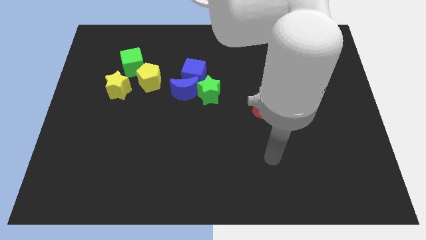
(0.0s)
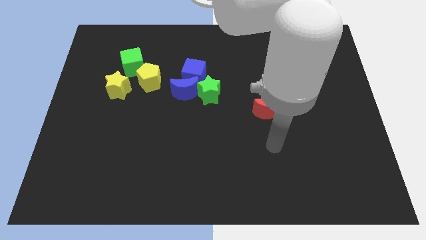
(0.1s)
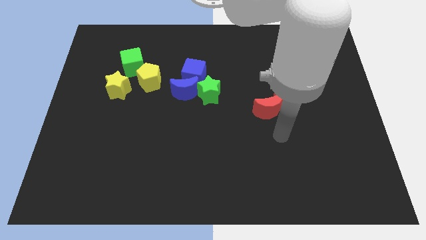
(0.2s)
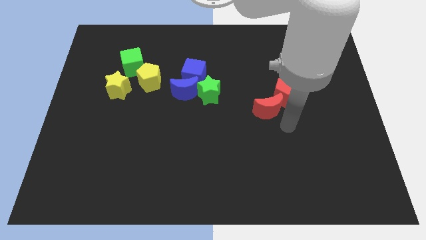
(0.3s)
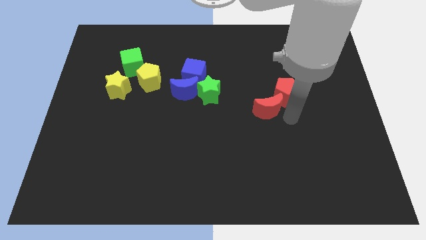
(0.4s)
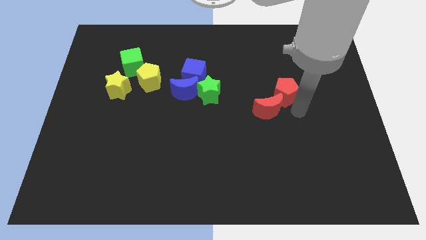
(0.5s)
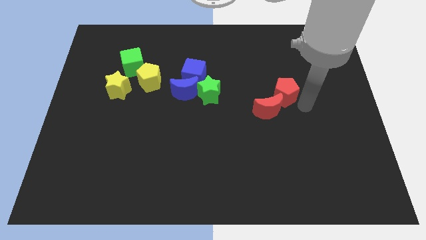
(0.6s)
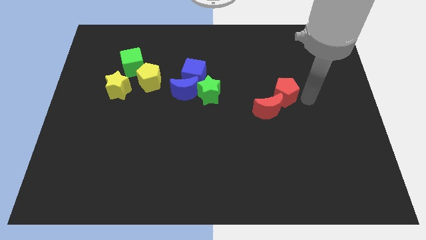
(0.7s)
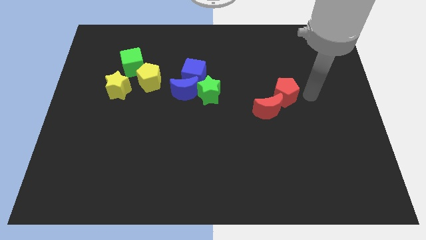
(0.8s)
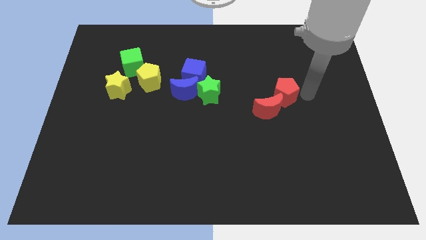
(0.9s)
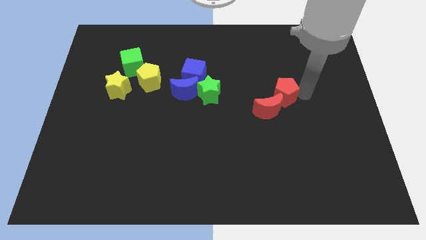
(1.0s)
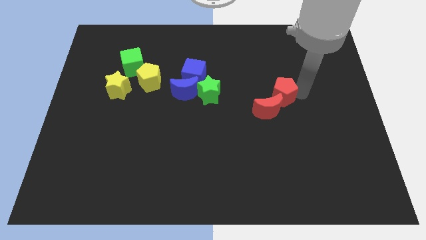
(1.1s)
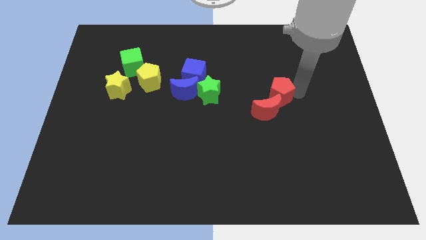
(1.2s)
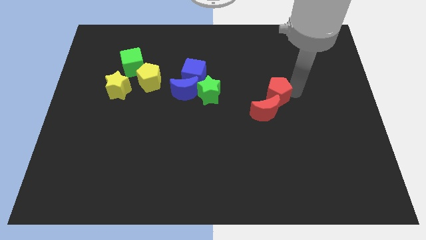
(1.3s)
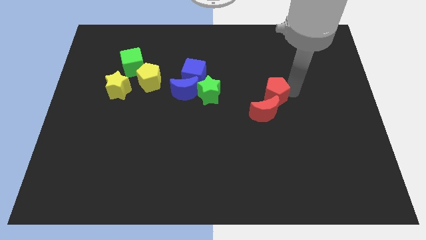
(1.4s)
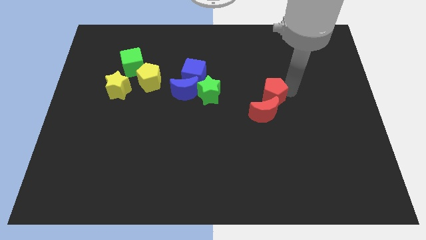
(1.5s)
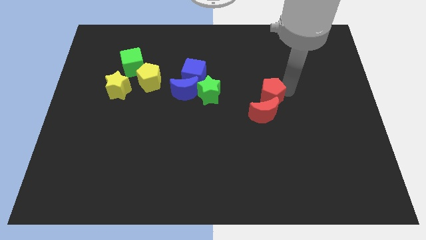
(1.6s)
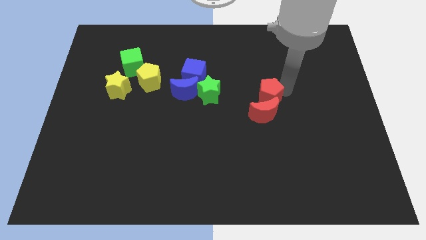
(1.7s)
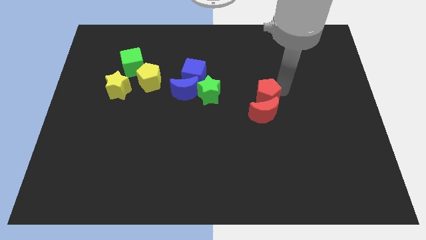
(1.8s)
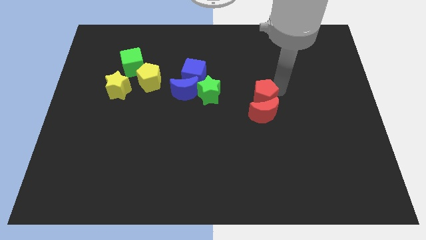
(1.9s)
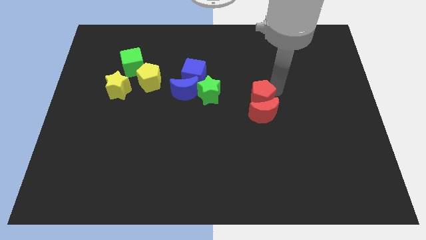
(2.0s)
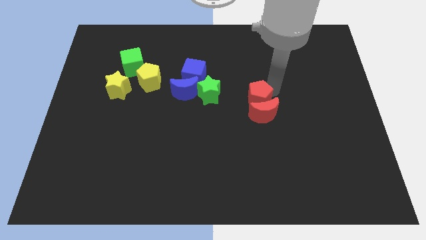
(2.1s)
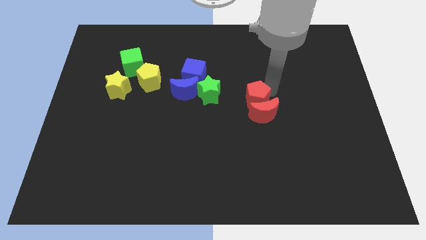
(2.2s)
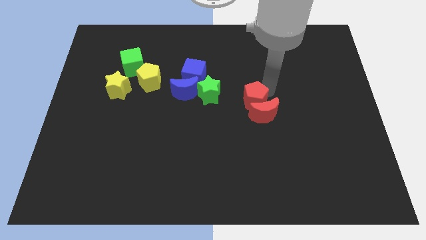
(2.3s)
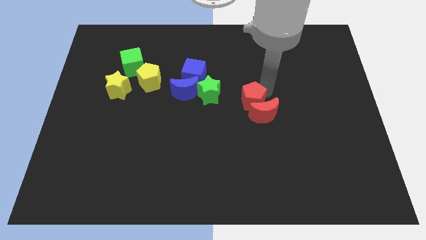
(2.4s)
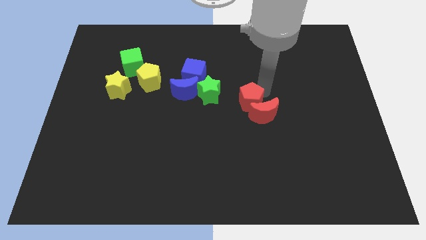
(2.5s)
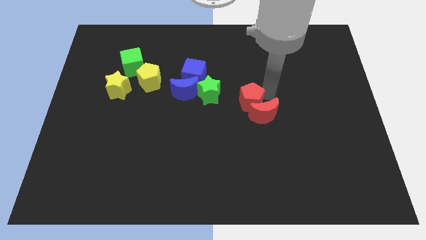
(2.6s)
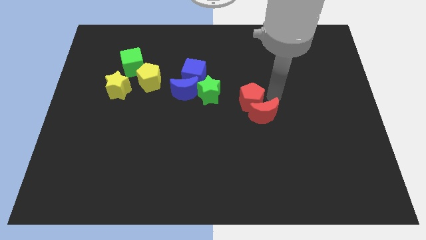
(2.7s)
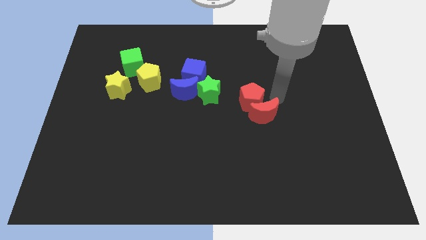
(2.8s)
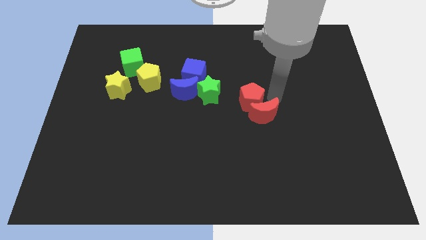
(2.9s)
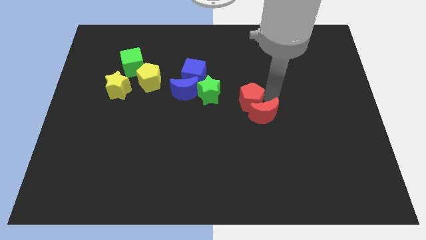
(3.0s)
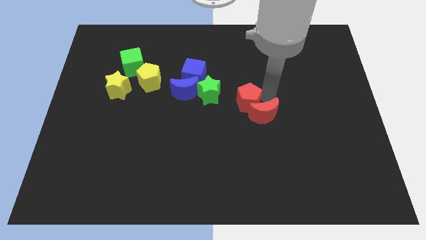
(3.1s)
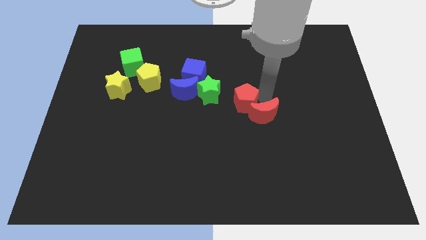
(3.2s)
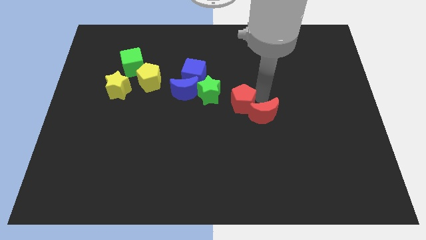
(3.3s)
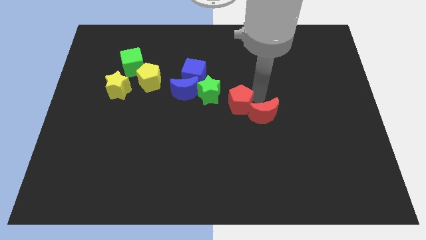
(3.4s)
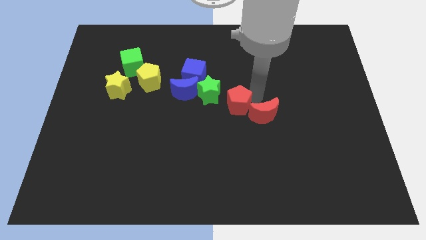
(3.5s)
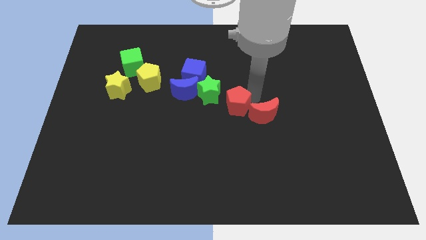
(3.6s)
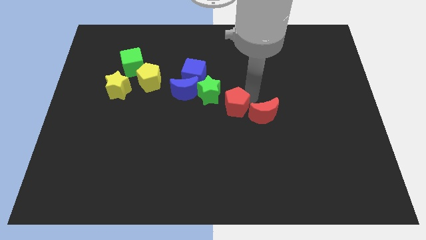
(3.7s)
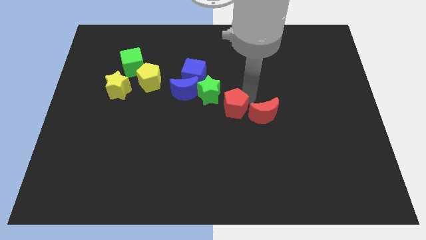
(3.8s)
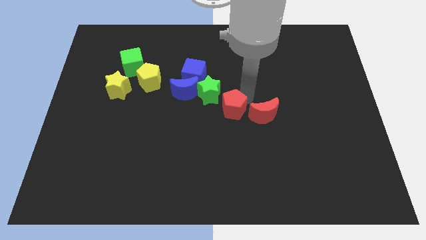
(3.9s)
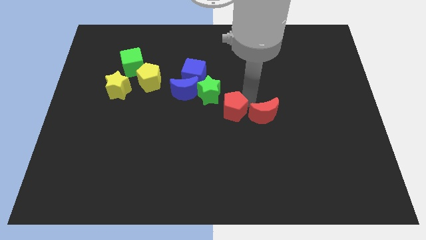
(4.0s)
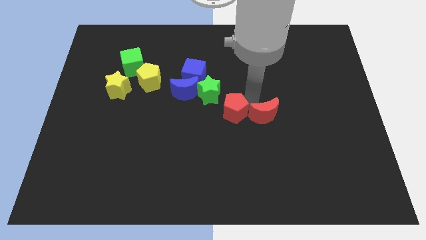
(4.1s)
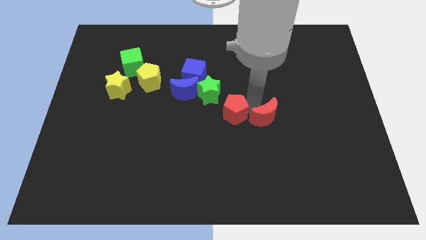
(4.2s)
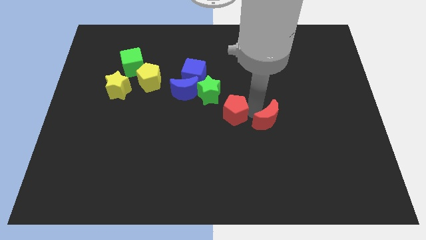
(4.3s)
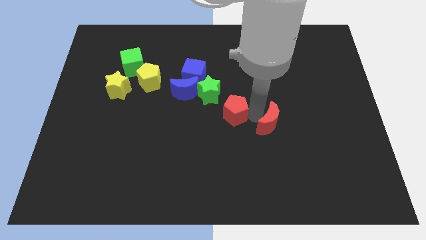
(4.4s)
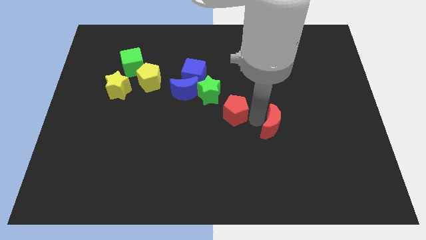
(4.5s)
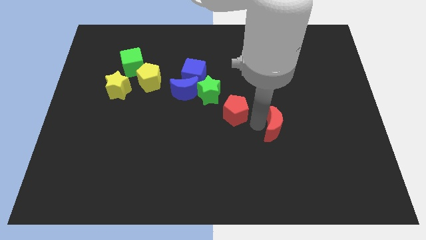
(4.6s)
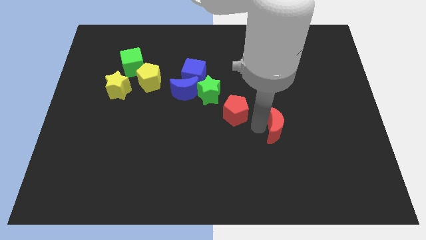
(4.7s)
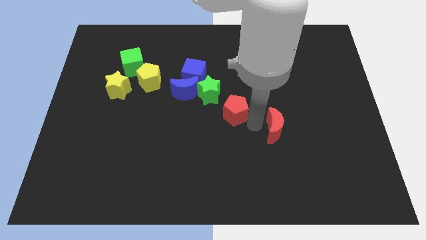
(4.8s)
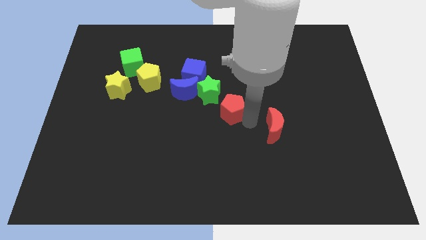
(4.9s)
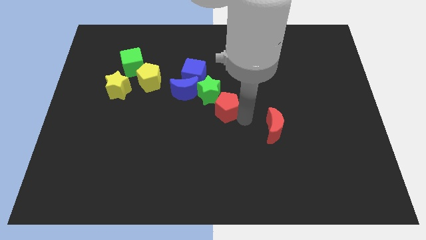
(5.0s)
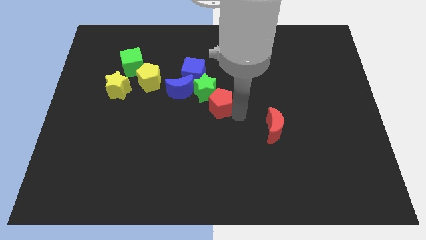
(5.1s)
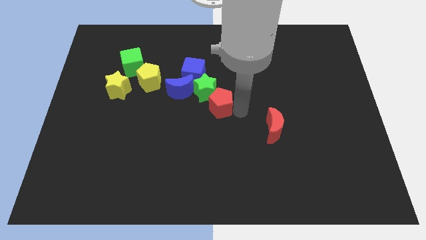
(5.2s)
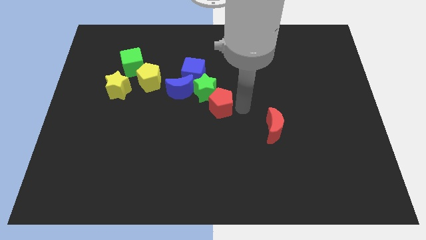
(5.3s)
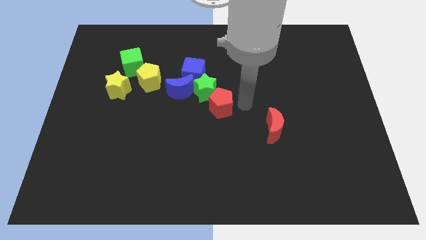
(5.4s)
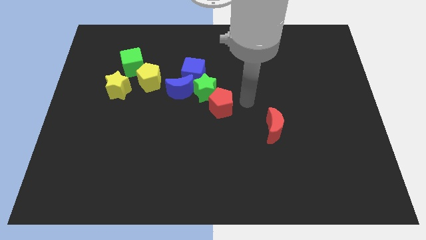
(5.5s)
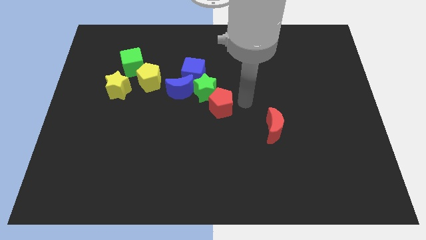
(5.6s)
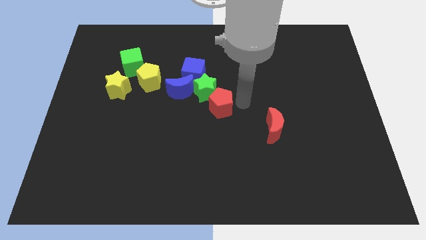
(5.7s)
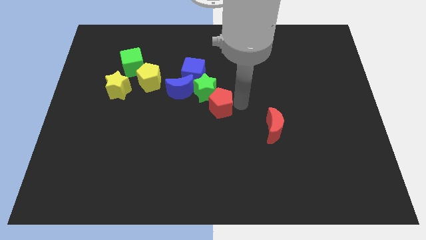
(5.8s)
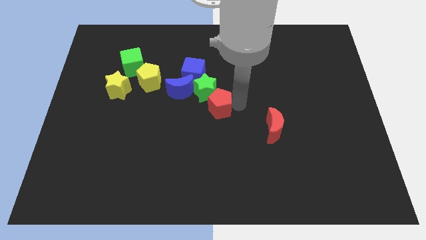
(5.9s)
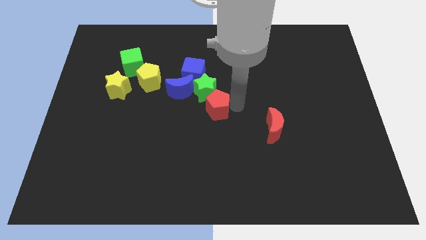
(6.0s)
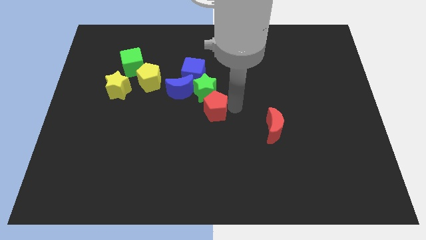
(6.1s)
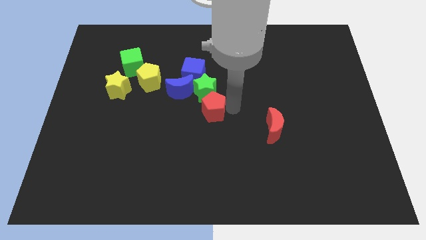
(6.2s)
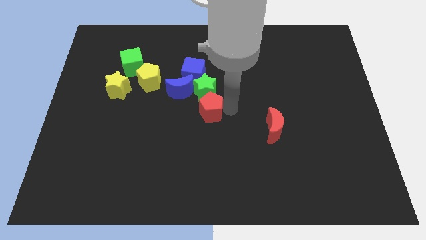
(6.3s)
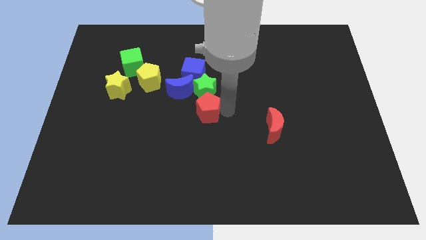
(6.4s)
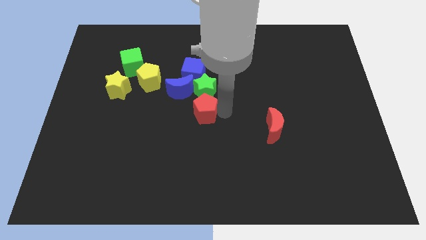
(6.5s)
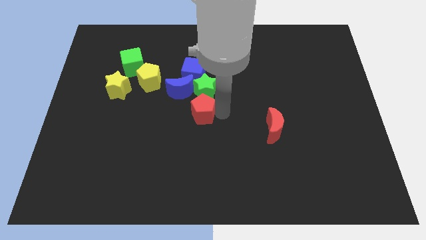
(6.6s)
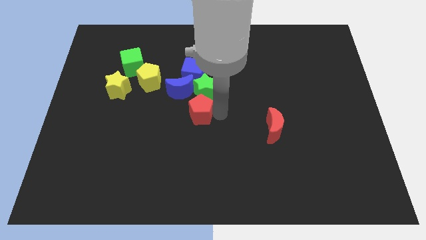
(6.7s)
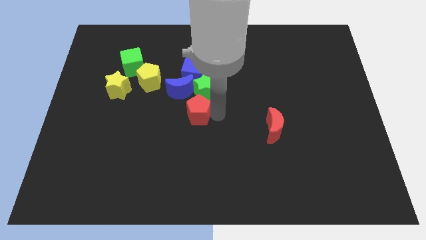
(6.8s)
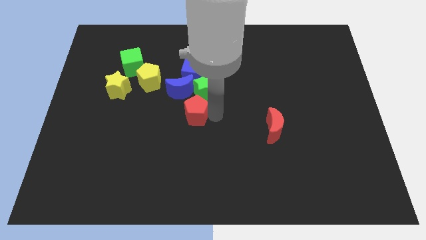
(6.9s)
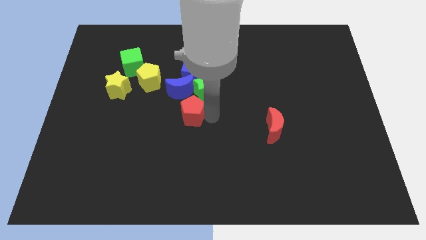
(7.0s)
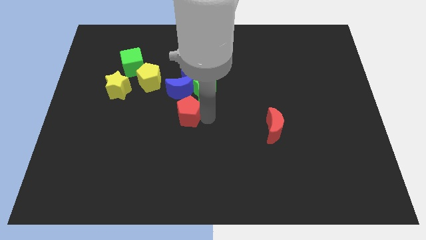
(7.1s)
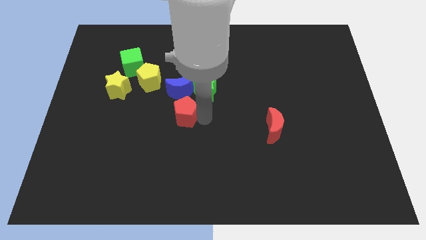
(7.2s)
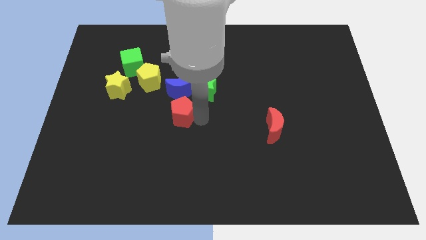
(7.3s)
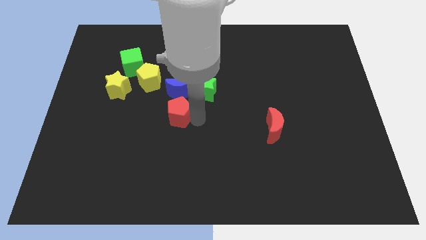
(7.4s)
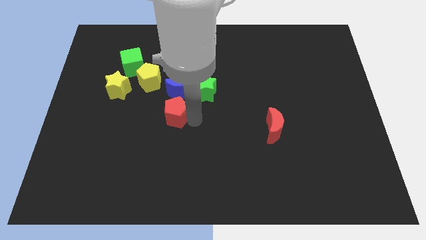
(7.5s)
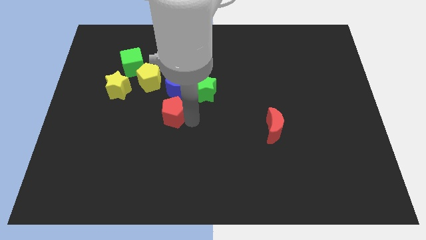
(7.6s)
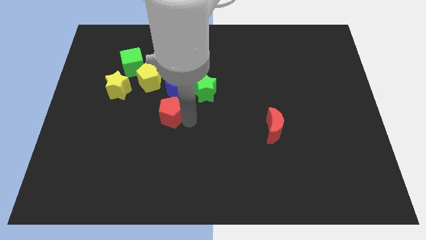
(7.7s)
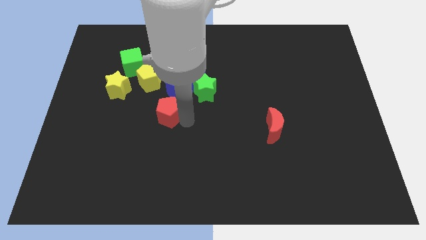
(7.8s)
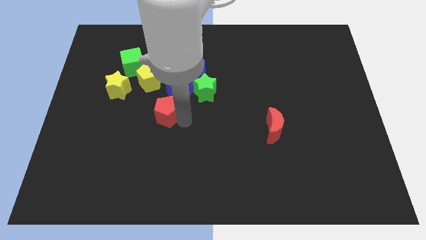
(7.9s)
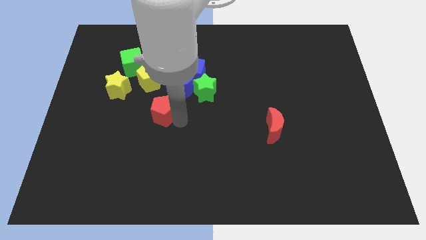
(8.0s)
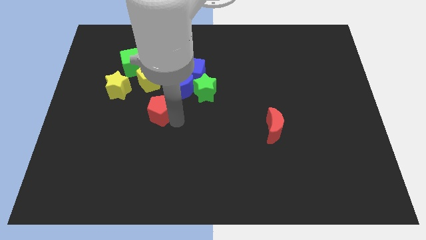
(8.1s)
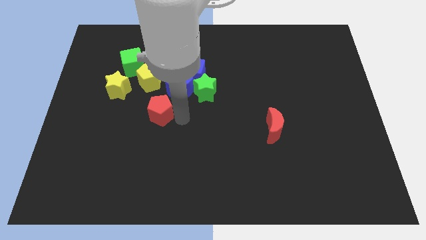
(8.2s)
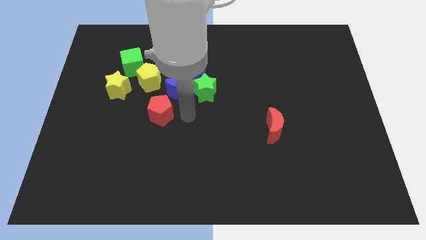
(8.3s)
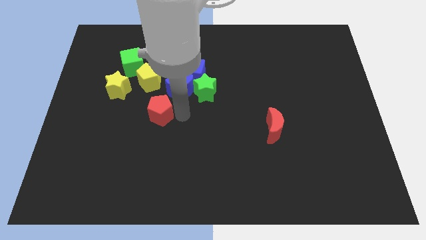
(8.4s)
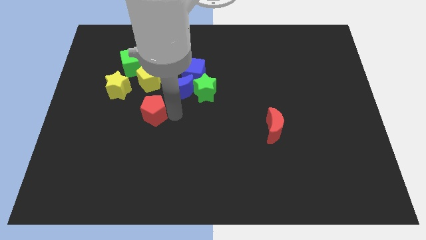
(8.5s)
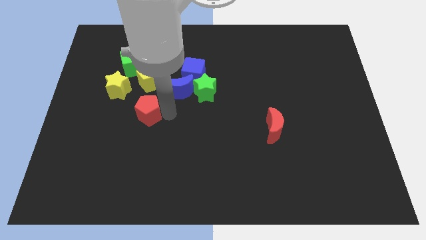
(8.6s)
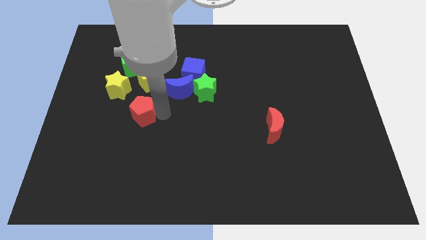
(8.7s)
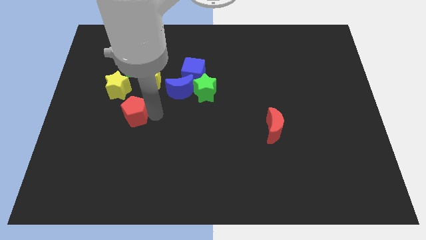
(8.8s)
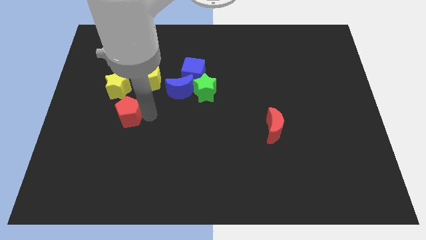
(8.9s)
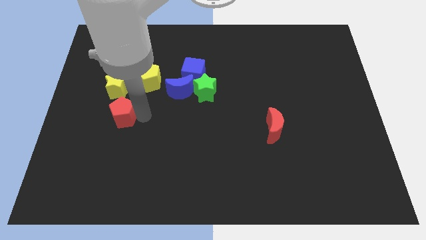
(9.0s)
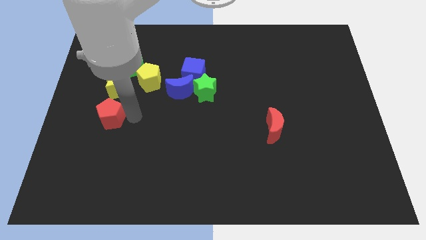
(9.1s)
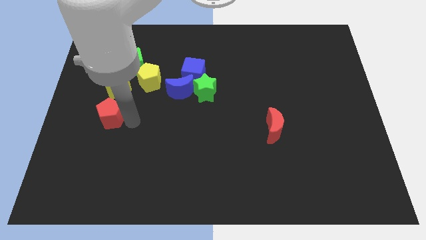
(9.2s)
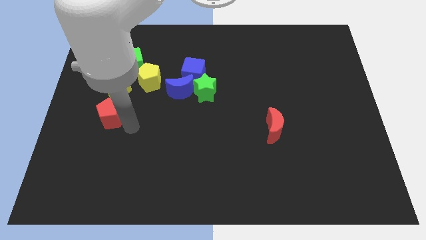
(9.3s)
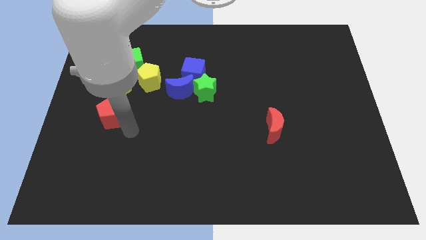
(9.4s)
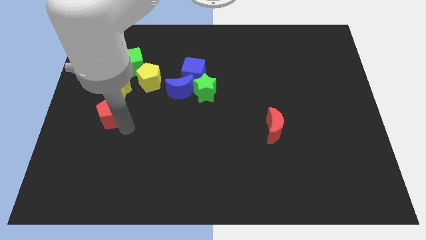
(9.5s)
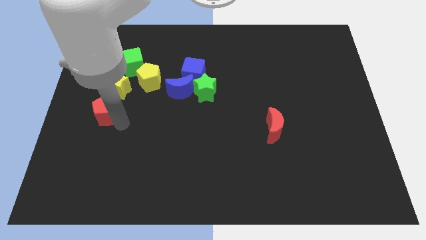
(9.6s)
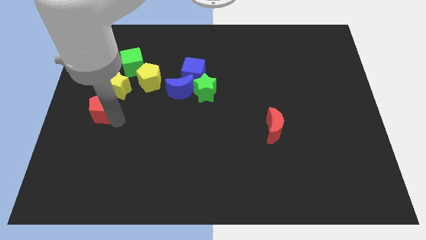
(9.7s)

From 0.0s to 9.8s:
put the red pentagon to the left side
